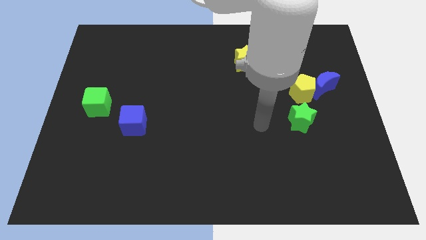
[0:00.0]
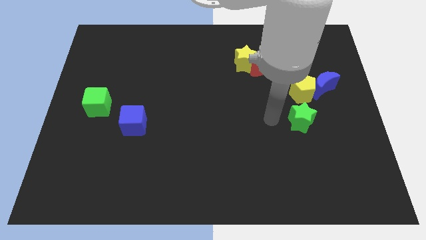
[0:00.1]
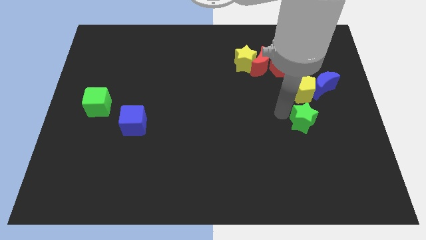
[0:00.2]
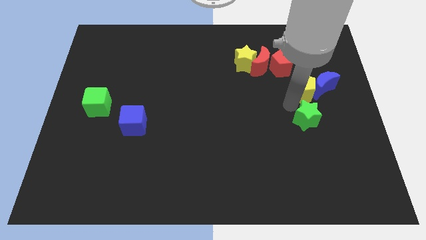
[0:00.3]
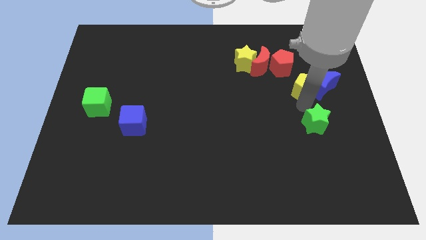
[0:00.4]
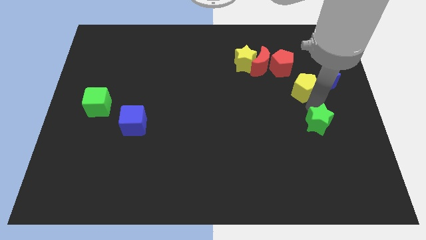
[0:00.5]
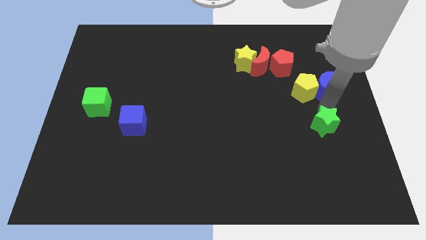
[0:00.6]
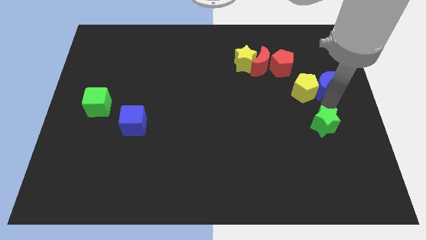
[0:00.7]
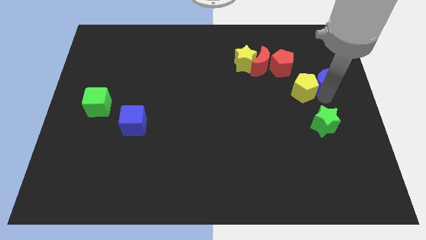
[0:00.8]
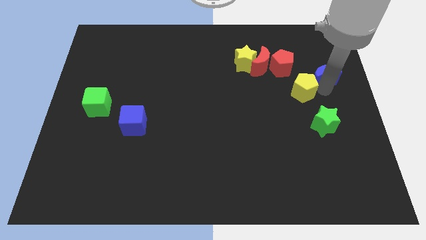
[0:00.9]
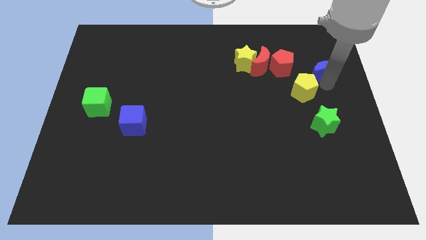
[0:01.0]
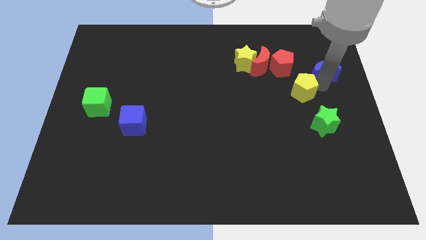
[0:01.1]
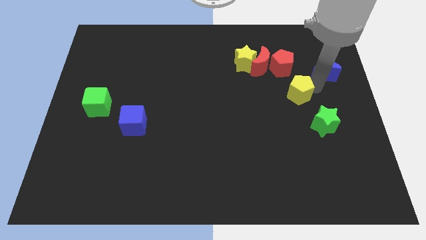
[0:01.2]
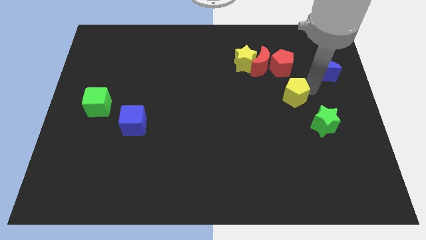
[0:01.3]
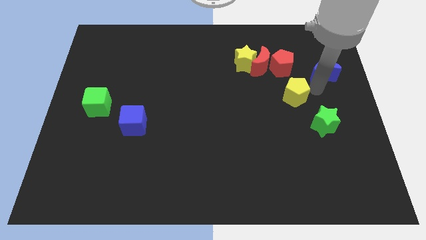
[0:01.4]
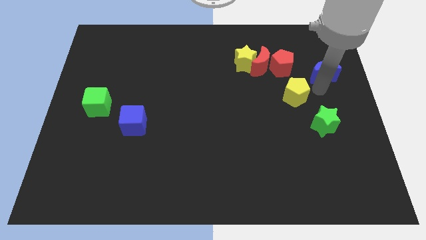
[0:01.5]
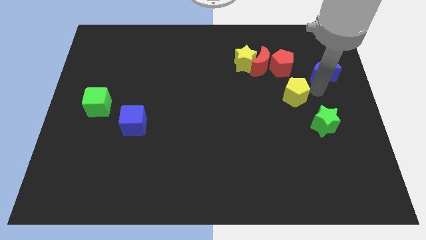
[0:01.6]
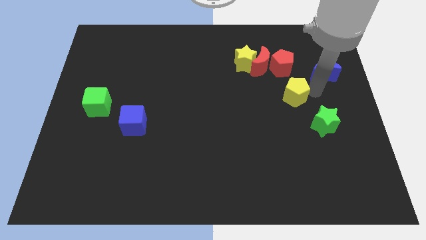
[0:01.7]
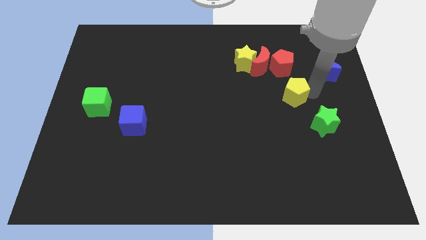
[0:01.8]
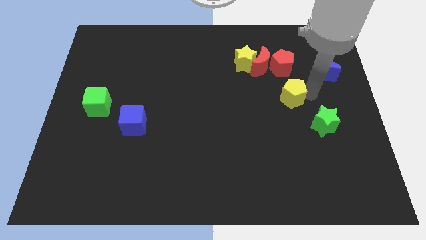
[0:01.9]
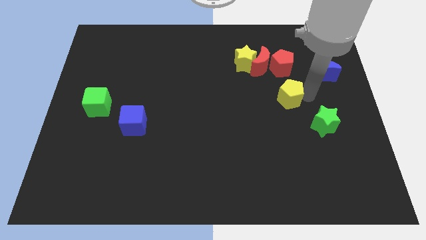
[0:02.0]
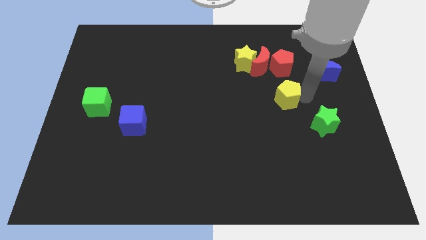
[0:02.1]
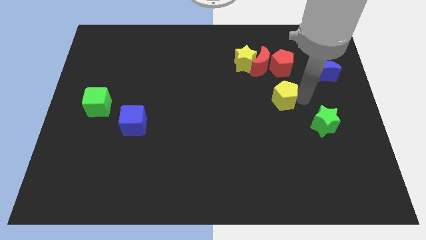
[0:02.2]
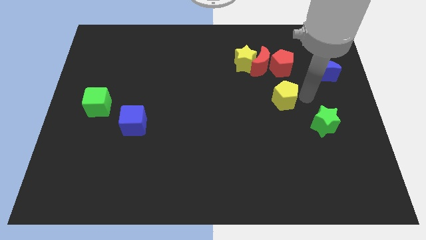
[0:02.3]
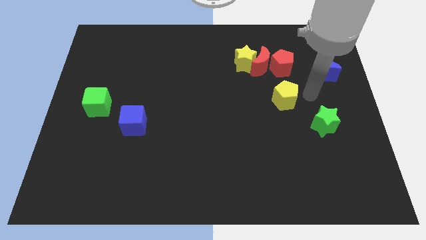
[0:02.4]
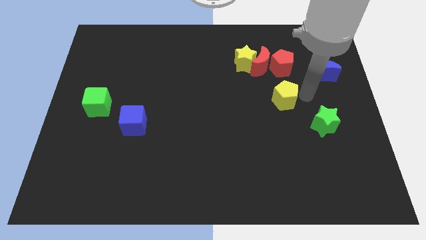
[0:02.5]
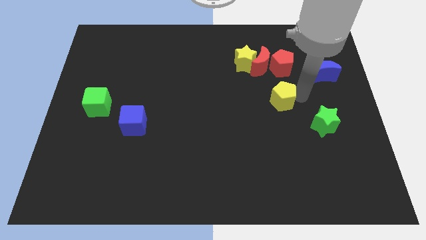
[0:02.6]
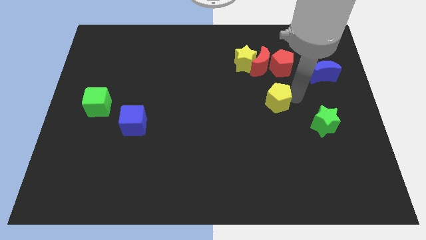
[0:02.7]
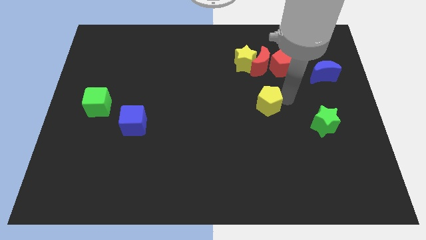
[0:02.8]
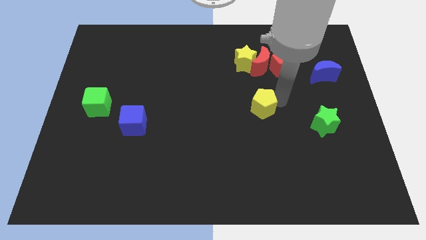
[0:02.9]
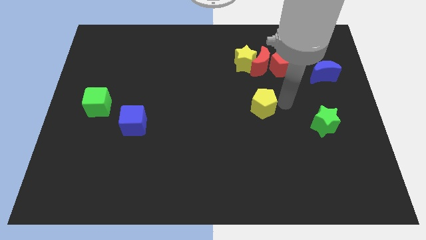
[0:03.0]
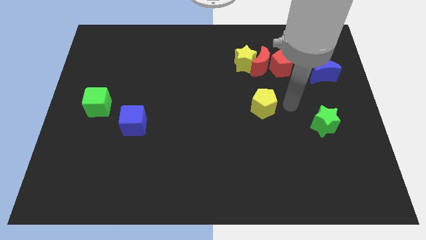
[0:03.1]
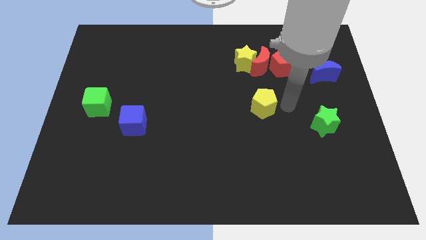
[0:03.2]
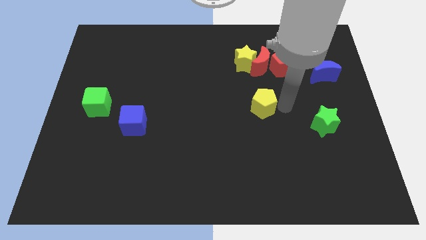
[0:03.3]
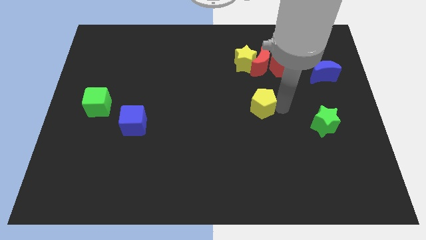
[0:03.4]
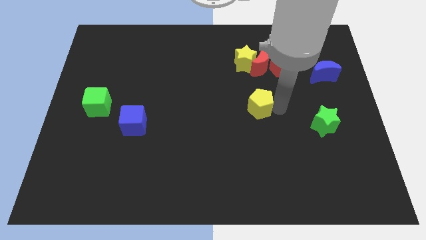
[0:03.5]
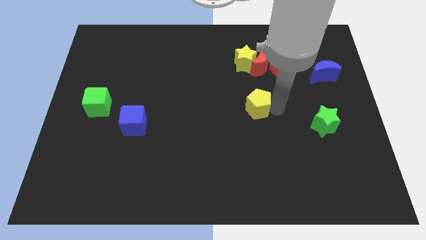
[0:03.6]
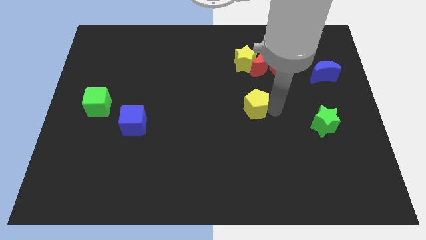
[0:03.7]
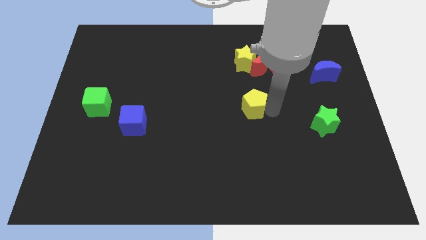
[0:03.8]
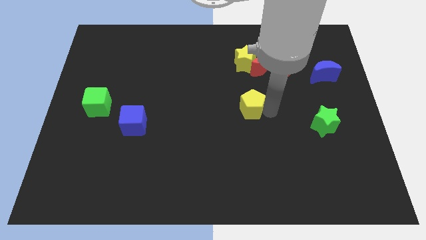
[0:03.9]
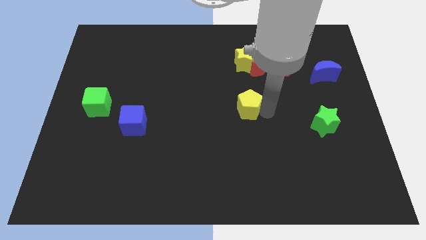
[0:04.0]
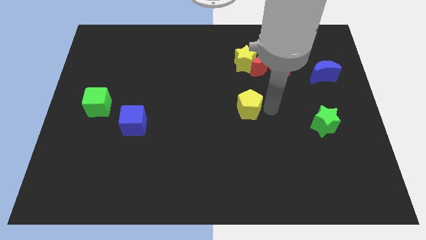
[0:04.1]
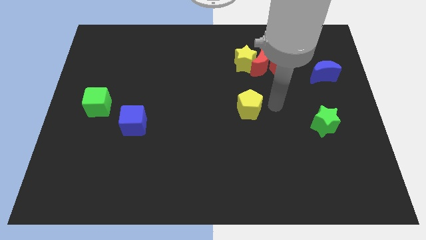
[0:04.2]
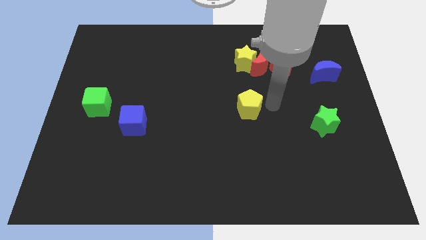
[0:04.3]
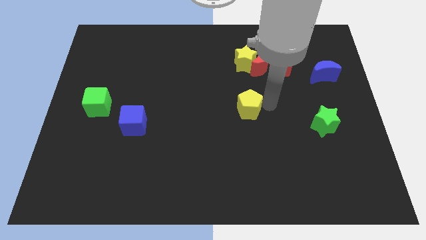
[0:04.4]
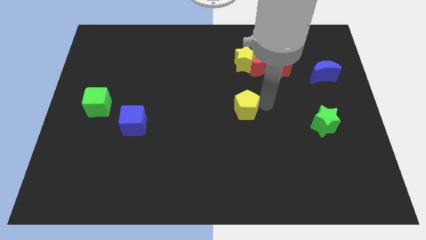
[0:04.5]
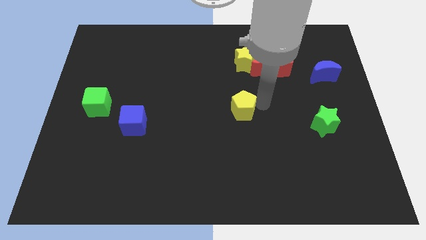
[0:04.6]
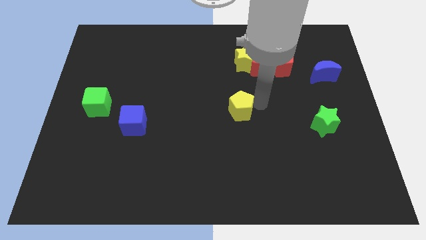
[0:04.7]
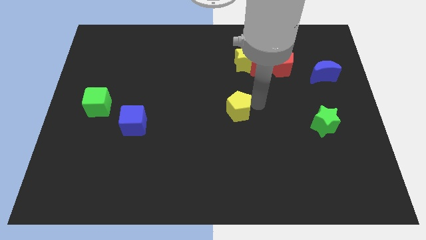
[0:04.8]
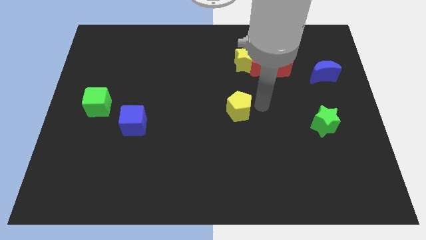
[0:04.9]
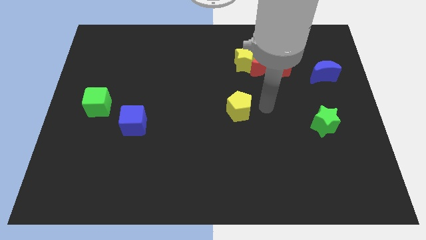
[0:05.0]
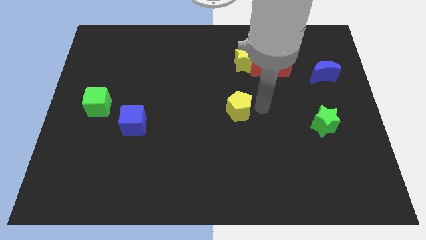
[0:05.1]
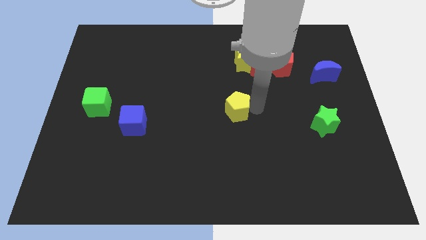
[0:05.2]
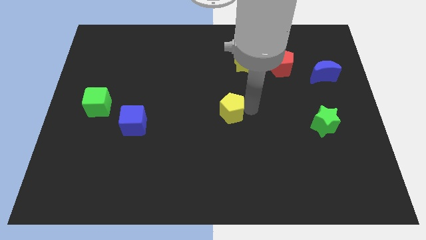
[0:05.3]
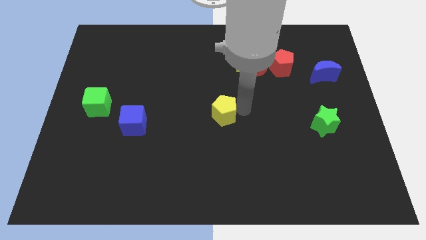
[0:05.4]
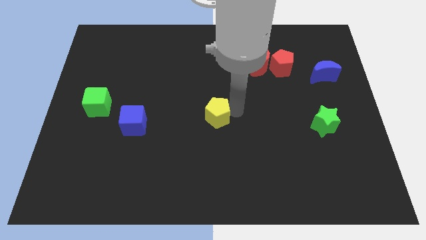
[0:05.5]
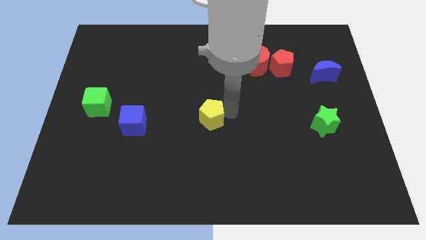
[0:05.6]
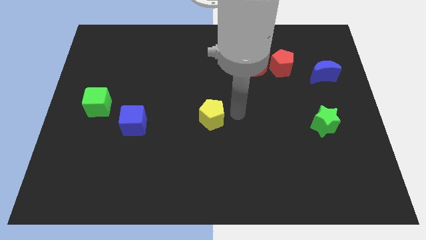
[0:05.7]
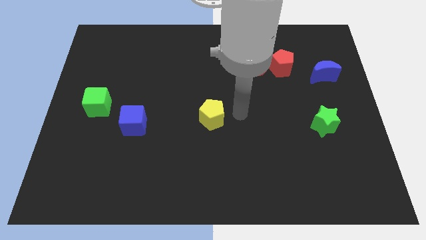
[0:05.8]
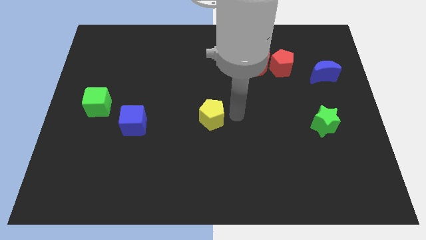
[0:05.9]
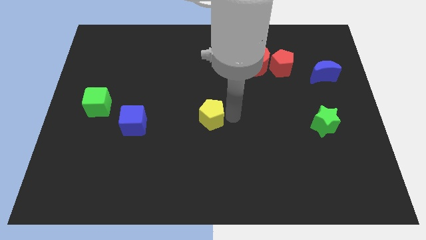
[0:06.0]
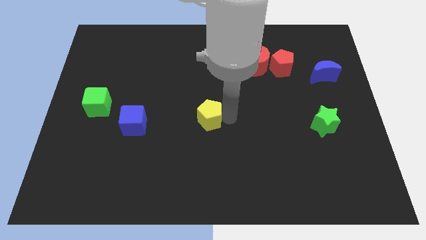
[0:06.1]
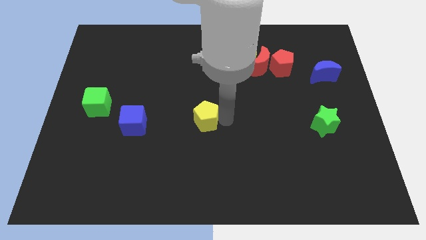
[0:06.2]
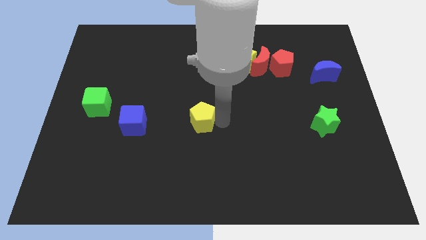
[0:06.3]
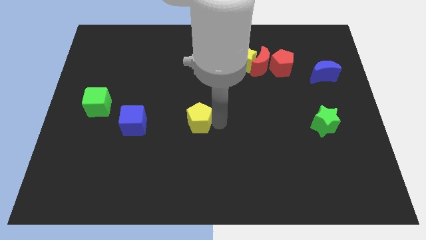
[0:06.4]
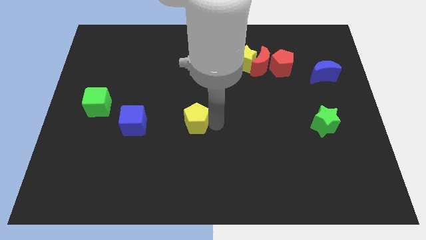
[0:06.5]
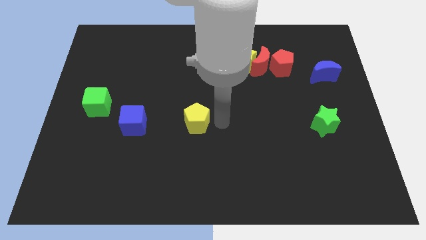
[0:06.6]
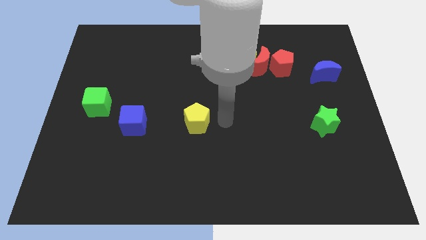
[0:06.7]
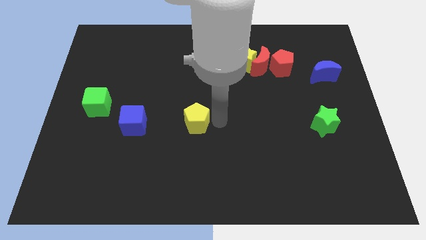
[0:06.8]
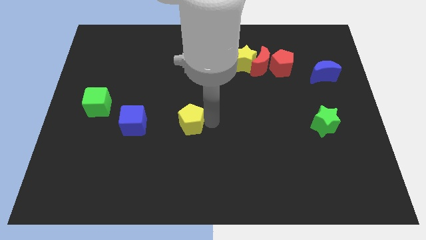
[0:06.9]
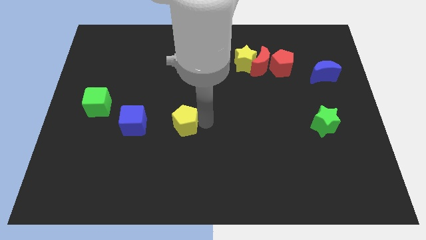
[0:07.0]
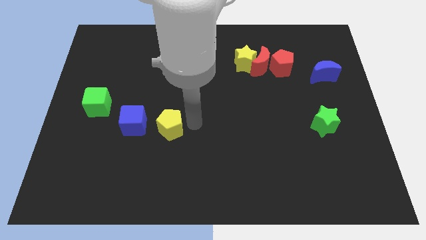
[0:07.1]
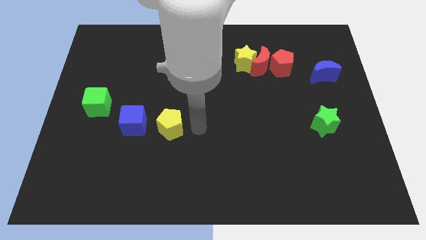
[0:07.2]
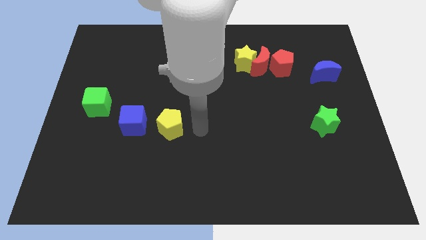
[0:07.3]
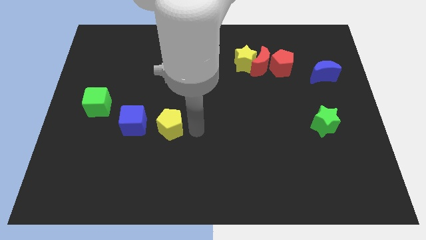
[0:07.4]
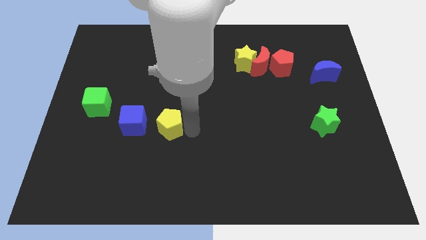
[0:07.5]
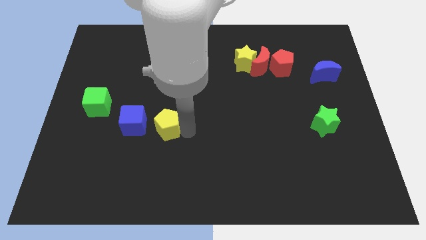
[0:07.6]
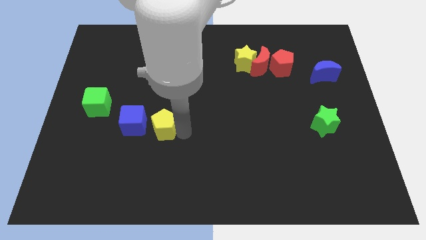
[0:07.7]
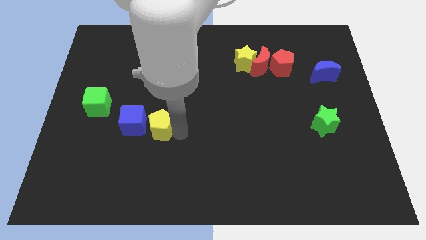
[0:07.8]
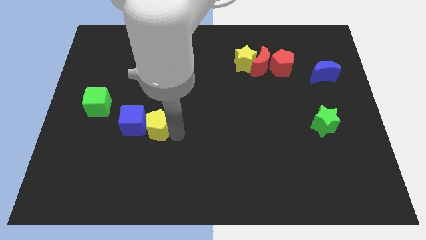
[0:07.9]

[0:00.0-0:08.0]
put the yellow pentagon towards the blue cube

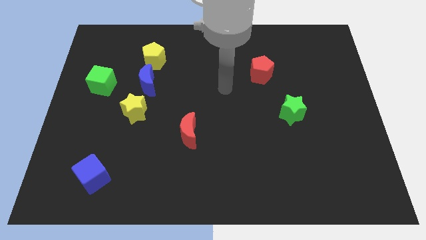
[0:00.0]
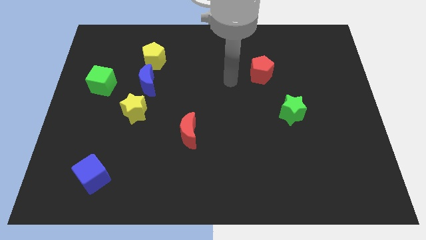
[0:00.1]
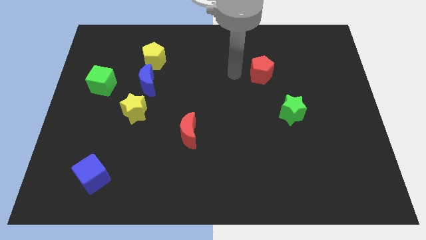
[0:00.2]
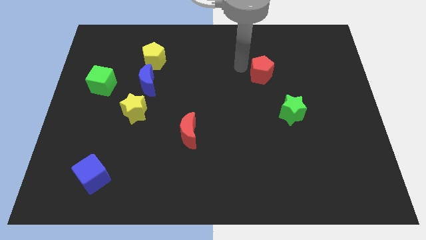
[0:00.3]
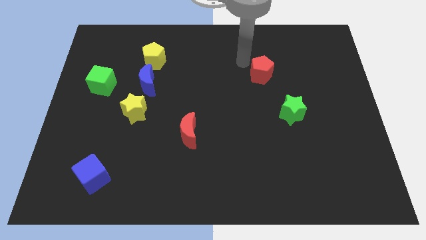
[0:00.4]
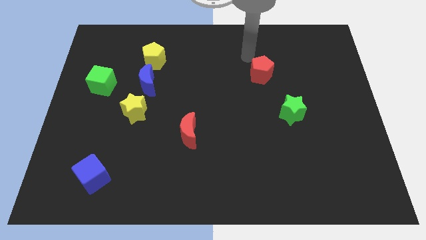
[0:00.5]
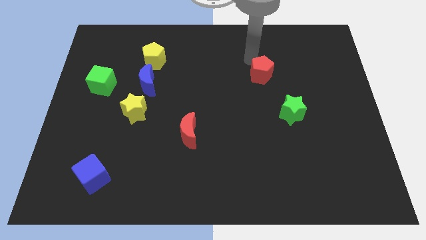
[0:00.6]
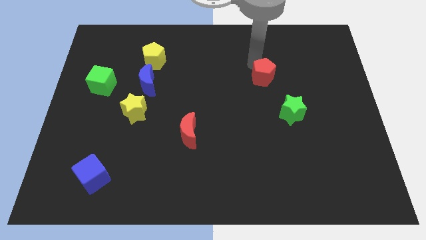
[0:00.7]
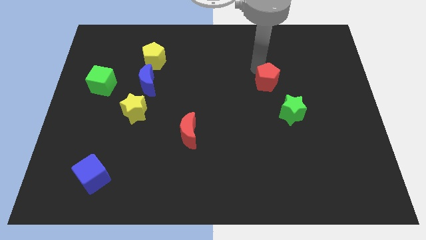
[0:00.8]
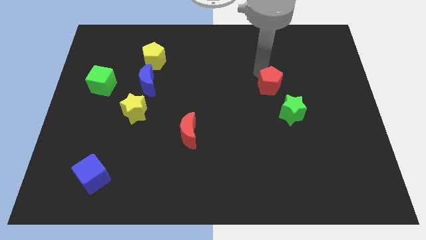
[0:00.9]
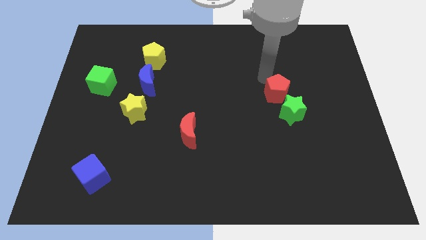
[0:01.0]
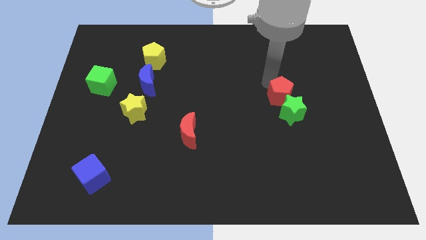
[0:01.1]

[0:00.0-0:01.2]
put the red pentagon next to the green star
